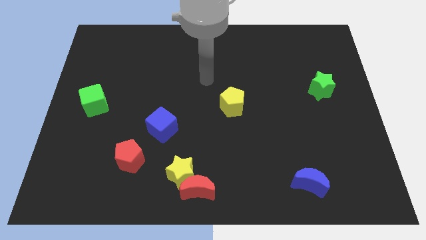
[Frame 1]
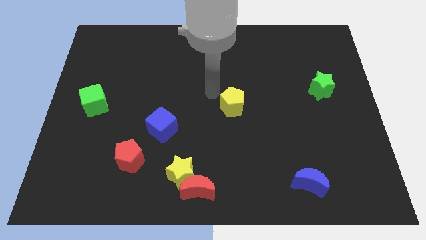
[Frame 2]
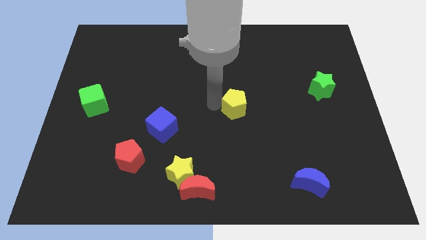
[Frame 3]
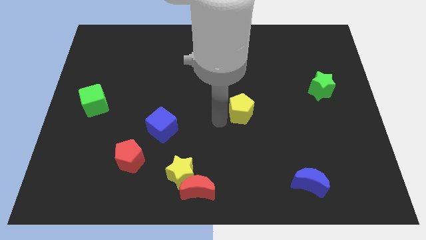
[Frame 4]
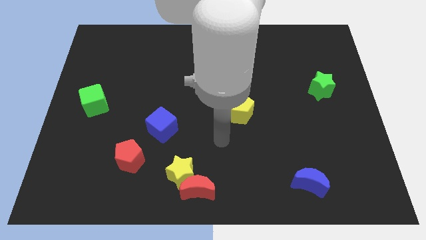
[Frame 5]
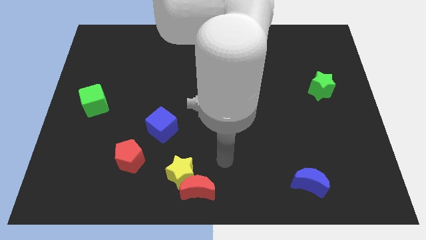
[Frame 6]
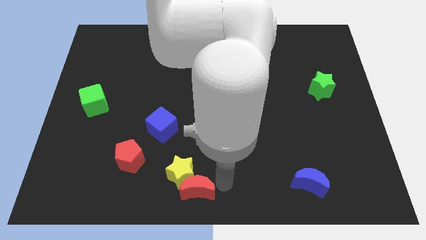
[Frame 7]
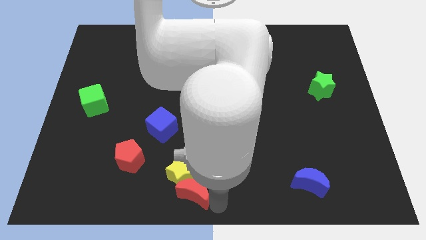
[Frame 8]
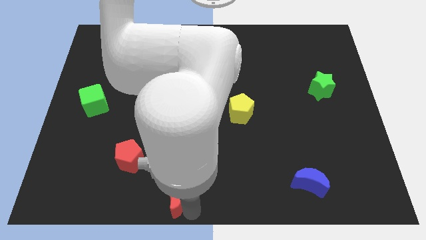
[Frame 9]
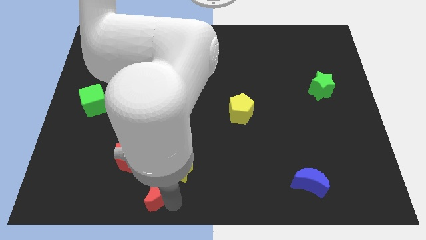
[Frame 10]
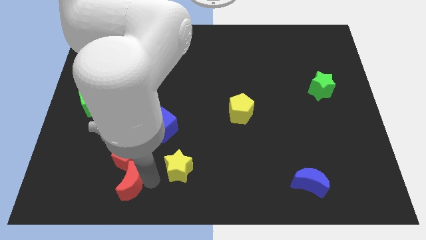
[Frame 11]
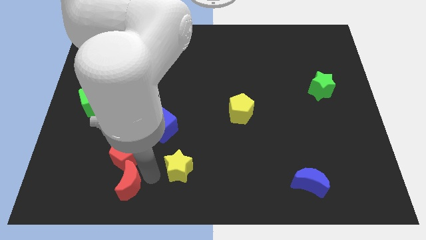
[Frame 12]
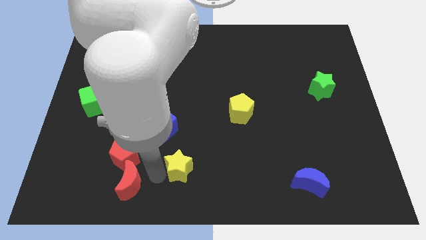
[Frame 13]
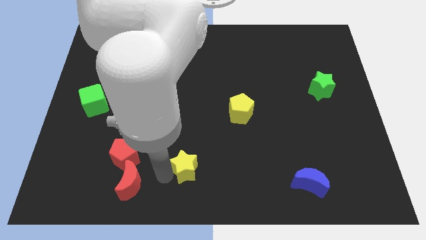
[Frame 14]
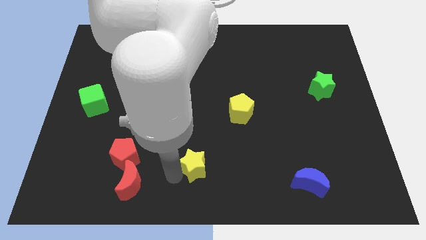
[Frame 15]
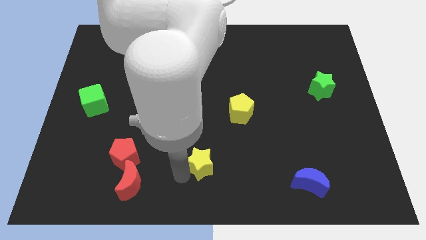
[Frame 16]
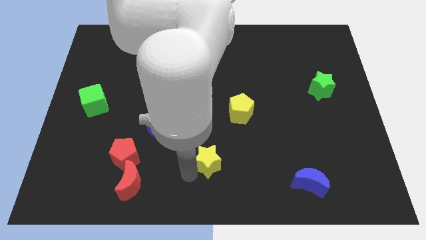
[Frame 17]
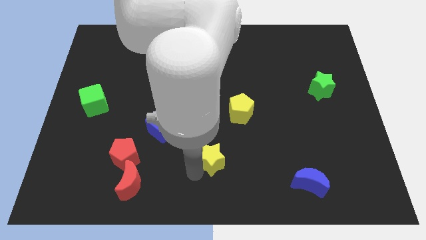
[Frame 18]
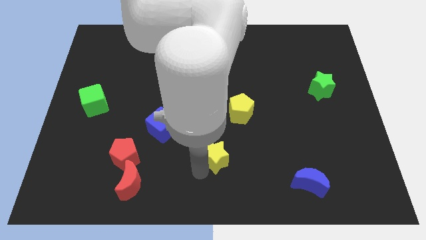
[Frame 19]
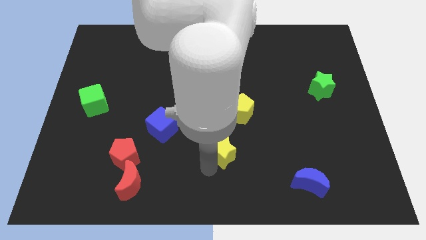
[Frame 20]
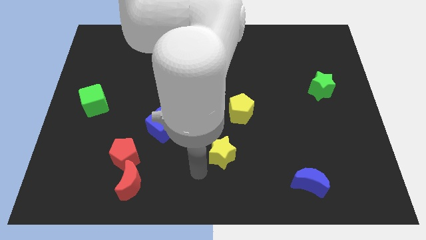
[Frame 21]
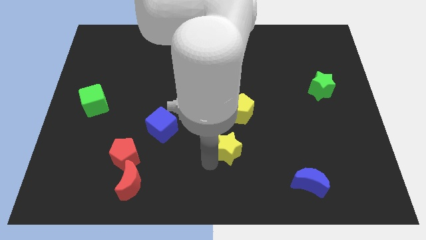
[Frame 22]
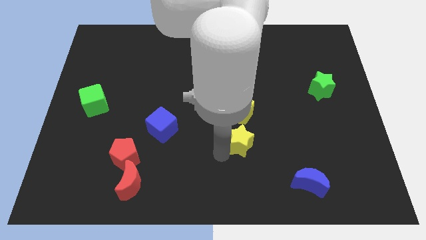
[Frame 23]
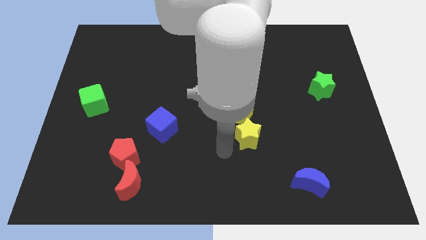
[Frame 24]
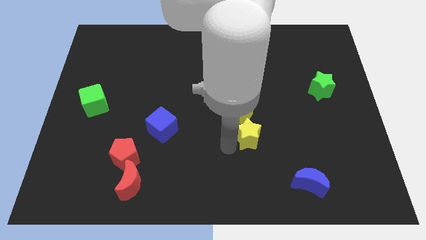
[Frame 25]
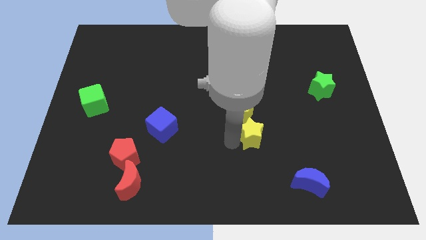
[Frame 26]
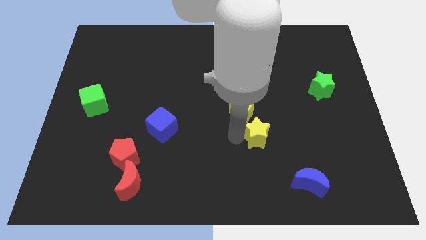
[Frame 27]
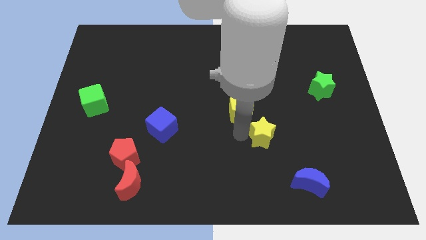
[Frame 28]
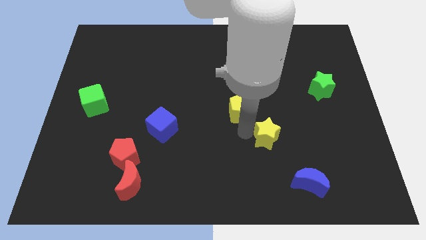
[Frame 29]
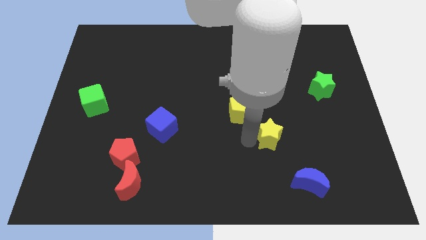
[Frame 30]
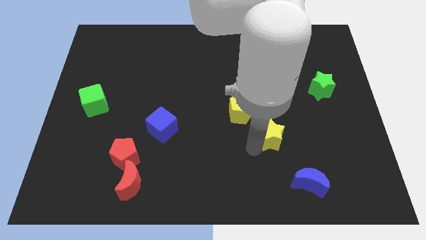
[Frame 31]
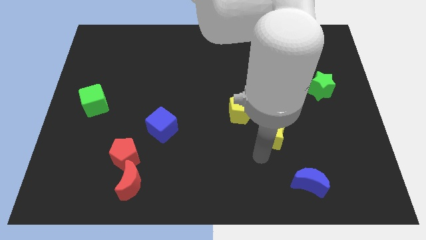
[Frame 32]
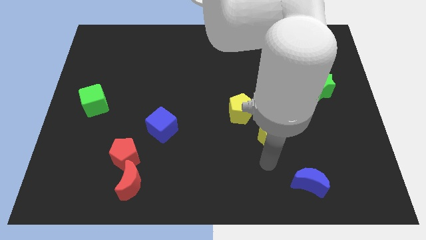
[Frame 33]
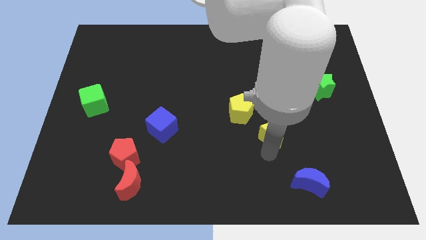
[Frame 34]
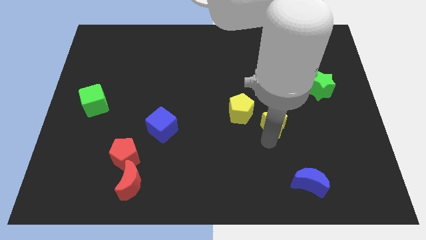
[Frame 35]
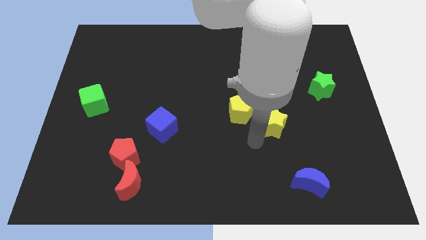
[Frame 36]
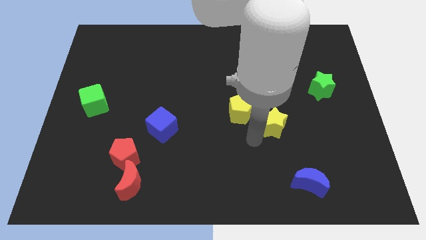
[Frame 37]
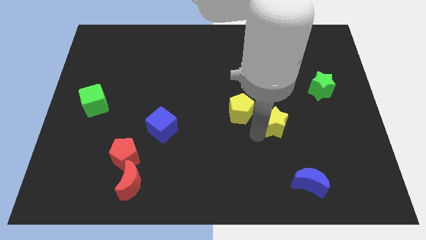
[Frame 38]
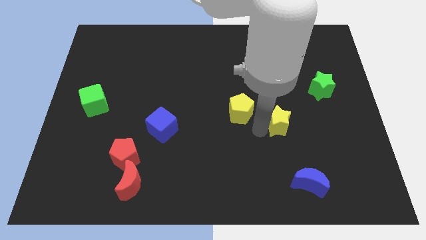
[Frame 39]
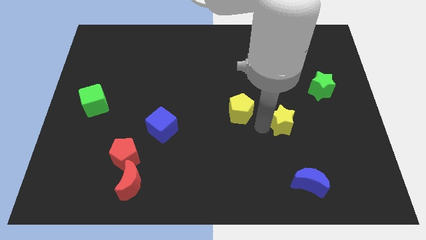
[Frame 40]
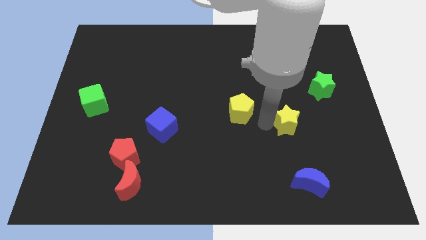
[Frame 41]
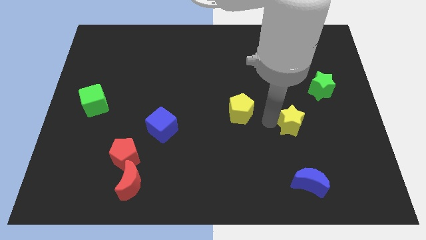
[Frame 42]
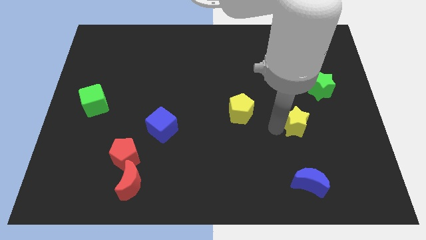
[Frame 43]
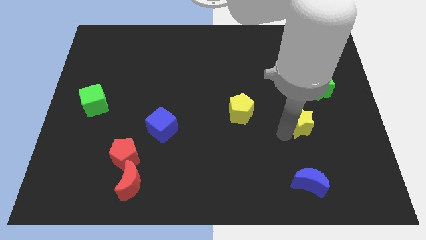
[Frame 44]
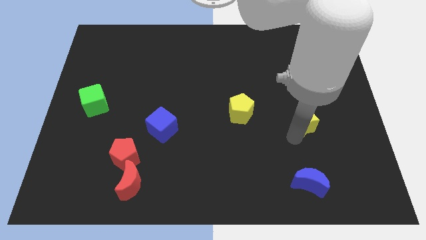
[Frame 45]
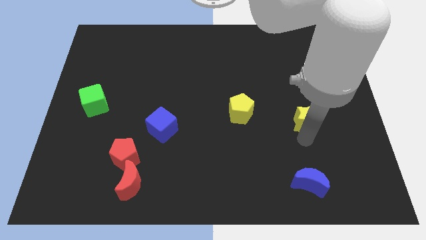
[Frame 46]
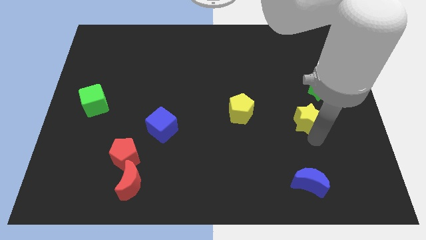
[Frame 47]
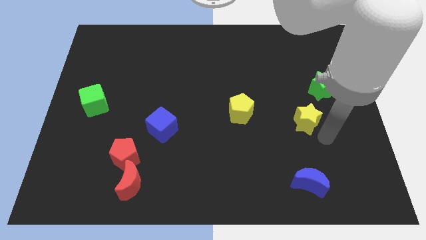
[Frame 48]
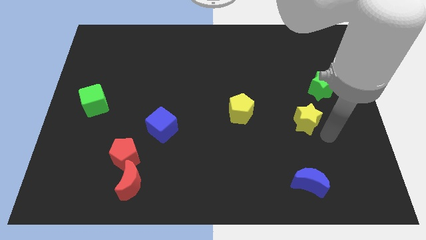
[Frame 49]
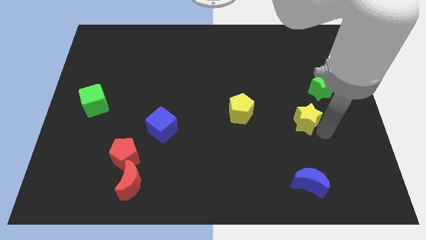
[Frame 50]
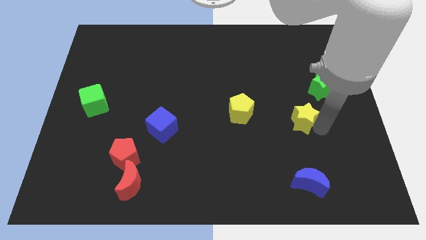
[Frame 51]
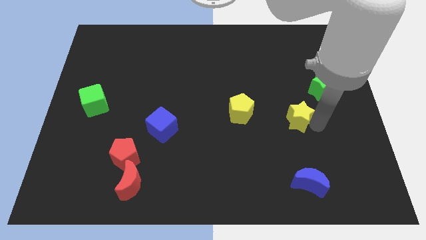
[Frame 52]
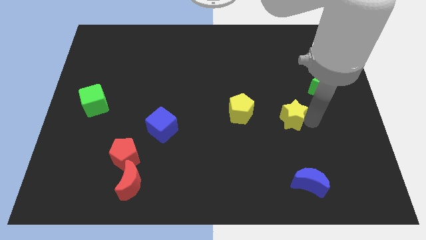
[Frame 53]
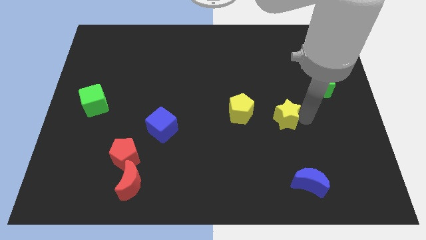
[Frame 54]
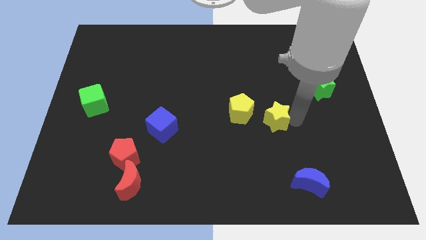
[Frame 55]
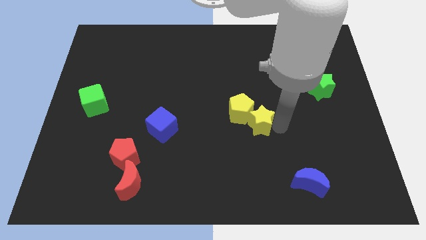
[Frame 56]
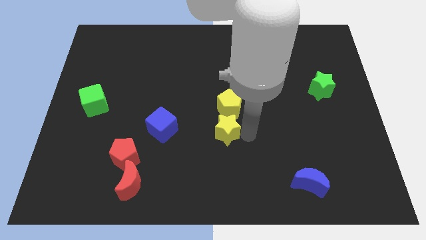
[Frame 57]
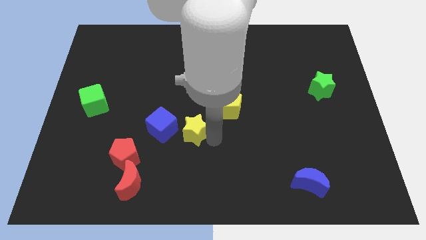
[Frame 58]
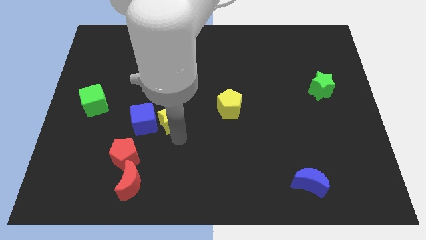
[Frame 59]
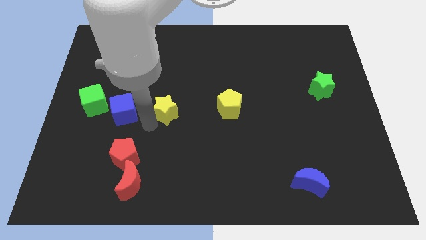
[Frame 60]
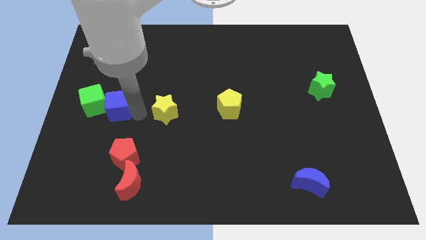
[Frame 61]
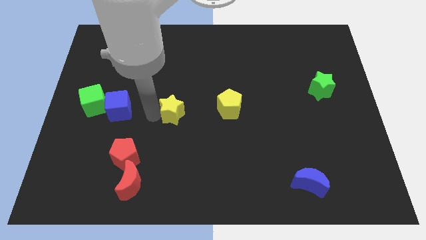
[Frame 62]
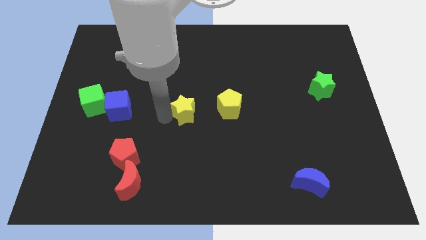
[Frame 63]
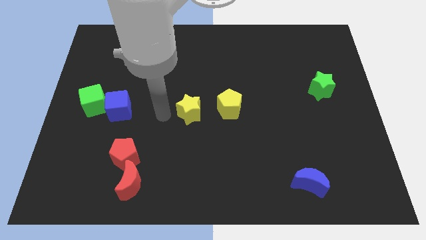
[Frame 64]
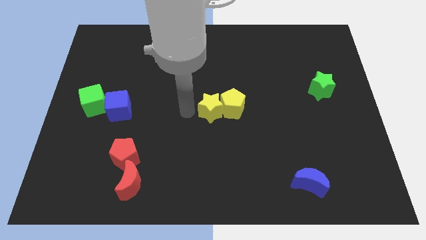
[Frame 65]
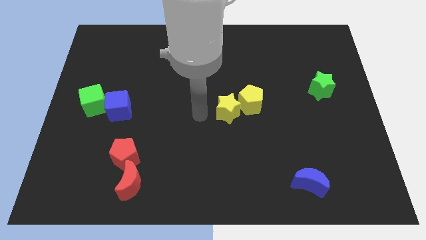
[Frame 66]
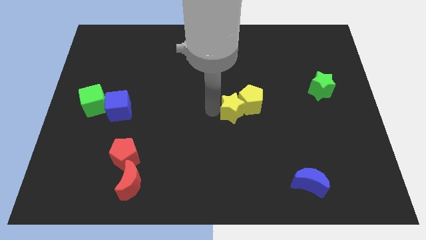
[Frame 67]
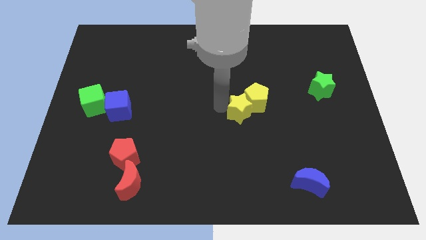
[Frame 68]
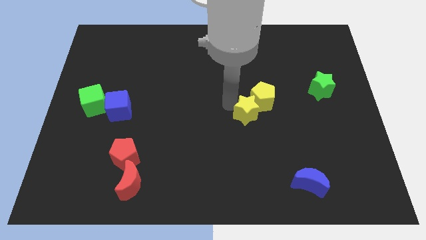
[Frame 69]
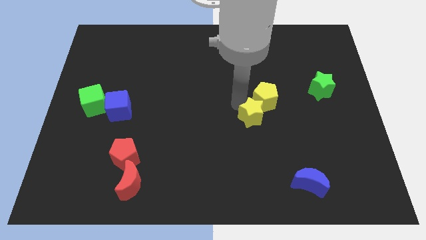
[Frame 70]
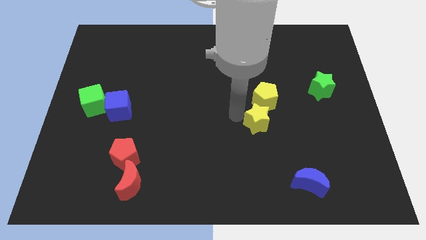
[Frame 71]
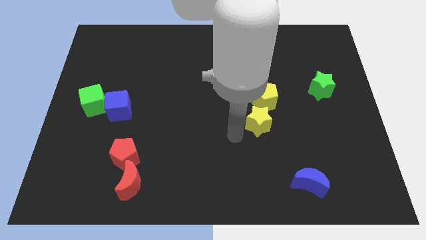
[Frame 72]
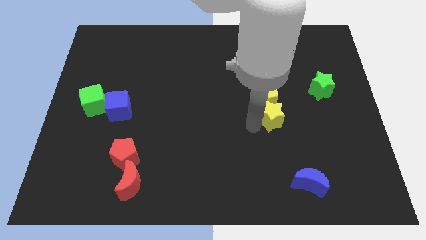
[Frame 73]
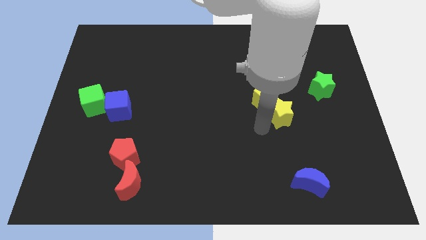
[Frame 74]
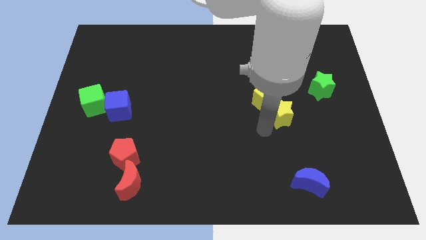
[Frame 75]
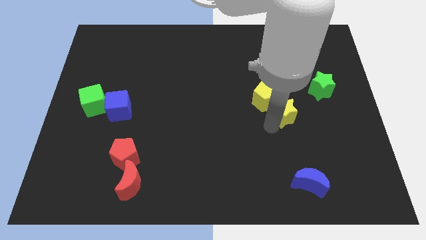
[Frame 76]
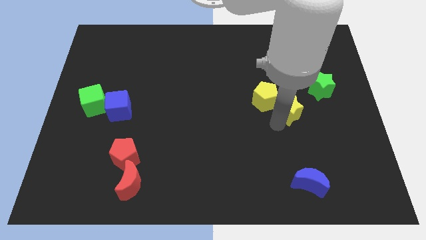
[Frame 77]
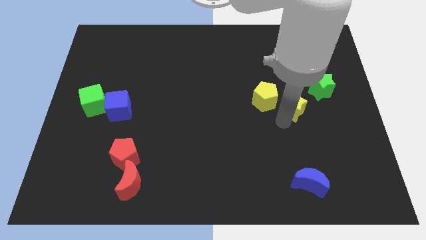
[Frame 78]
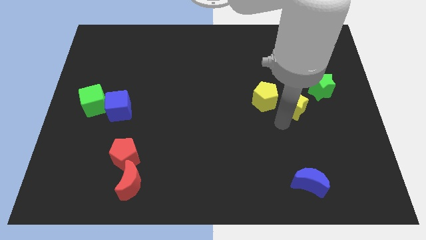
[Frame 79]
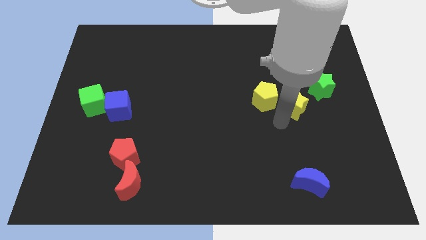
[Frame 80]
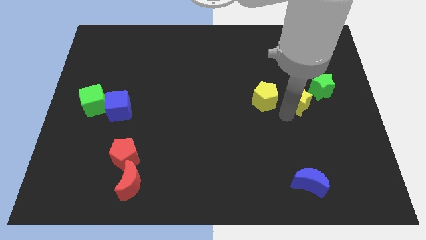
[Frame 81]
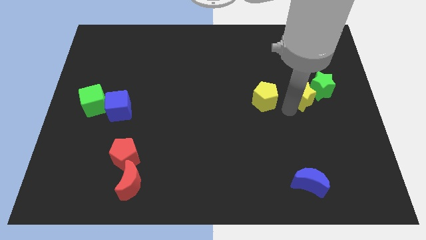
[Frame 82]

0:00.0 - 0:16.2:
put the yellow star close to the green star
